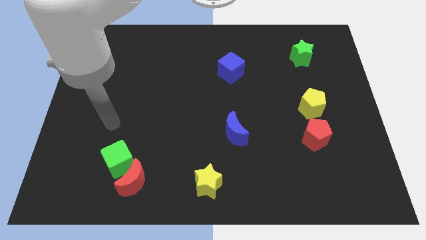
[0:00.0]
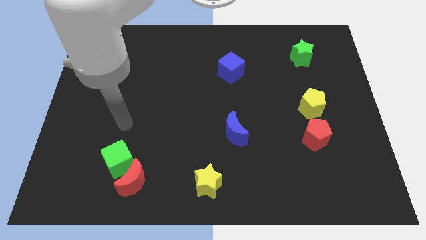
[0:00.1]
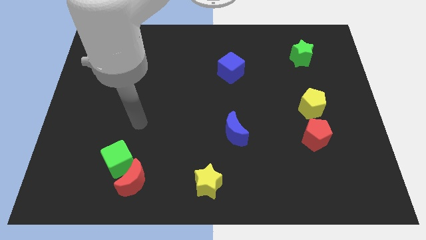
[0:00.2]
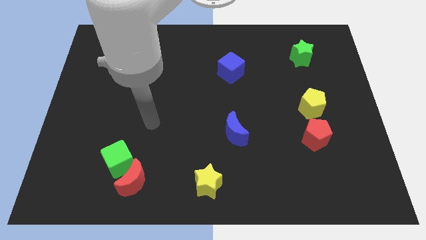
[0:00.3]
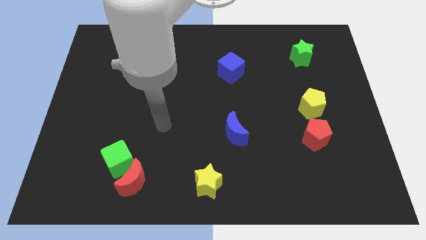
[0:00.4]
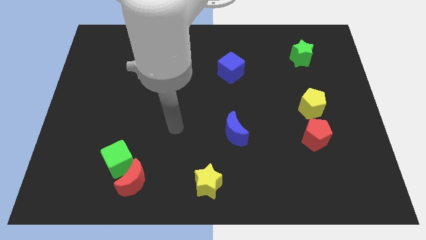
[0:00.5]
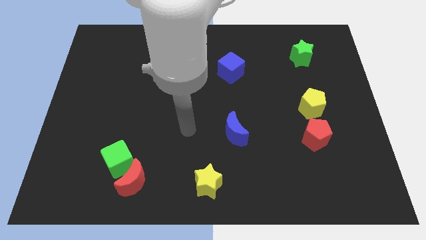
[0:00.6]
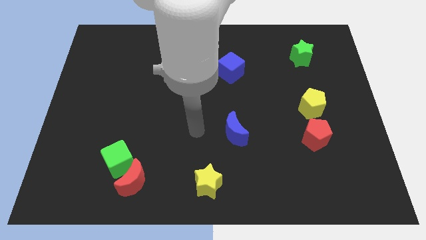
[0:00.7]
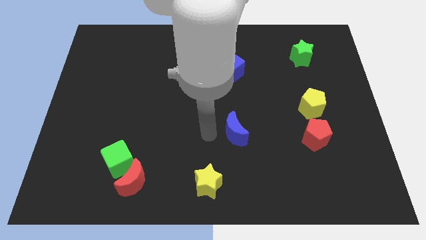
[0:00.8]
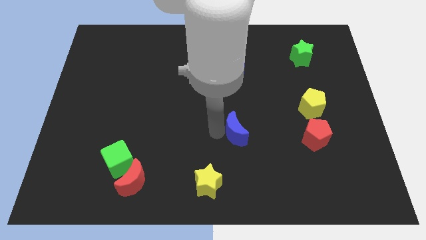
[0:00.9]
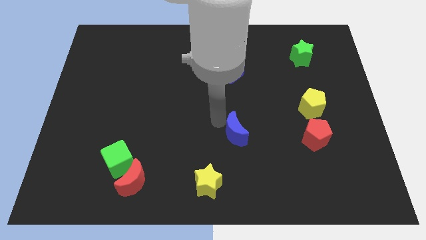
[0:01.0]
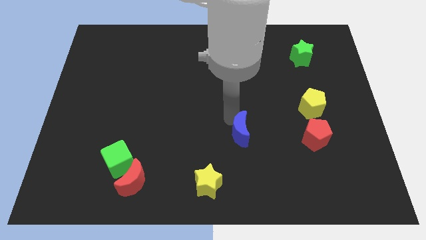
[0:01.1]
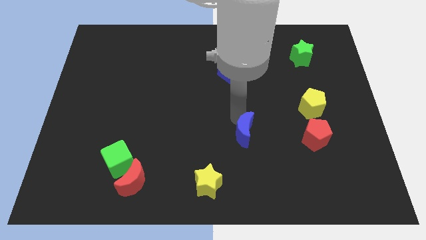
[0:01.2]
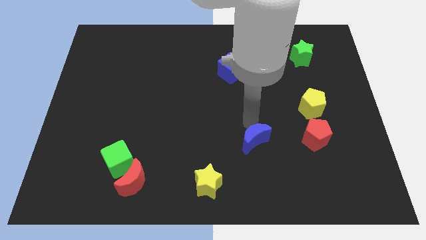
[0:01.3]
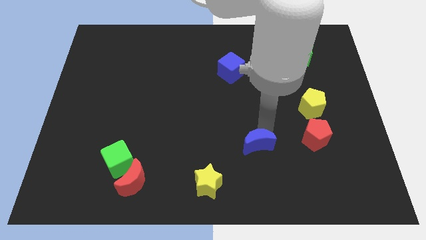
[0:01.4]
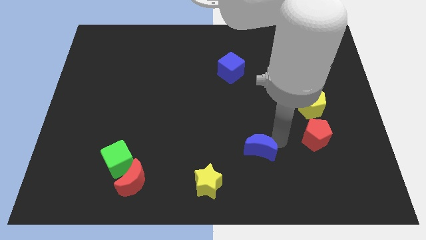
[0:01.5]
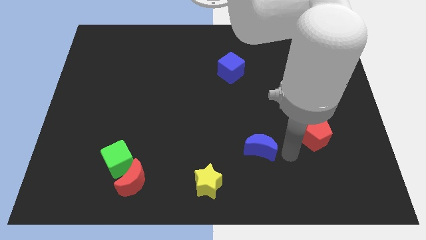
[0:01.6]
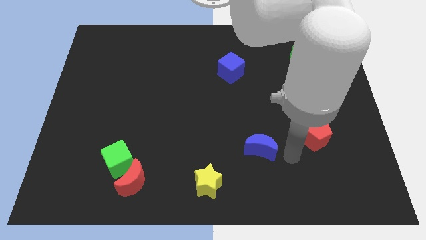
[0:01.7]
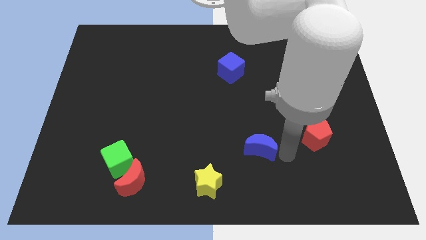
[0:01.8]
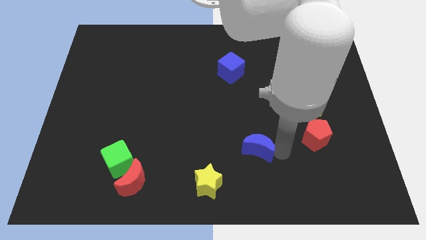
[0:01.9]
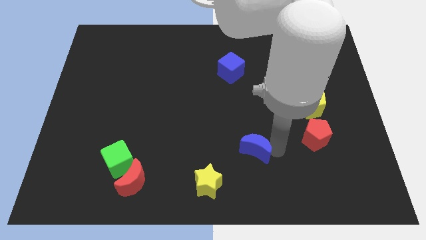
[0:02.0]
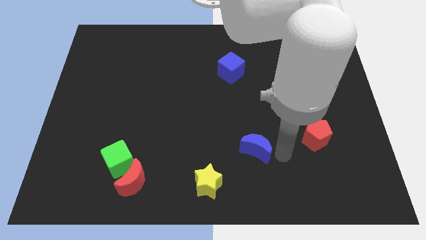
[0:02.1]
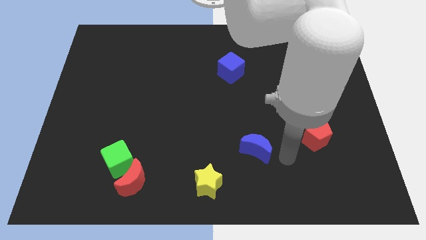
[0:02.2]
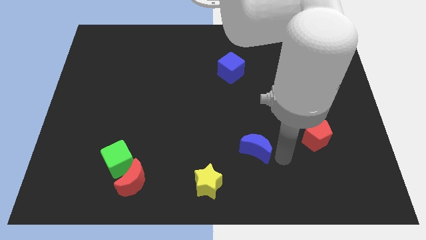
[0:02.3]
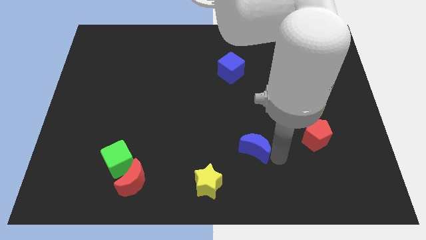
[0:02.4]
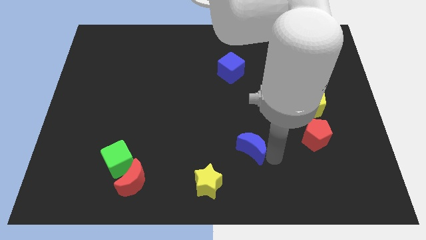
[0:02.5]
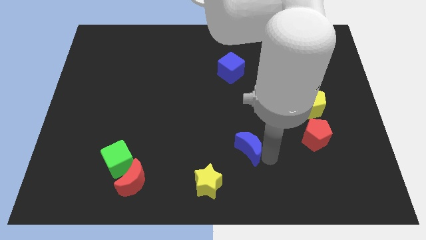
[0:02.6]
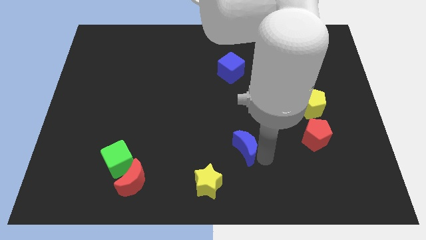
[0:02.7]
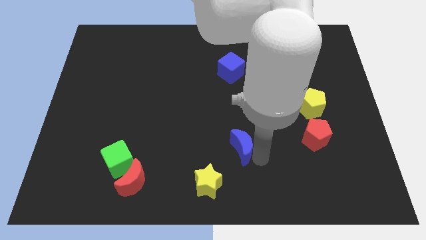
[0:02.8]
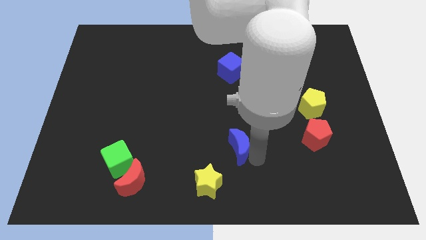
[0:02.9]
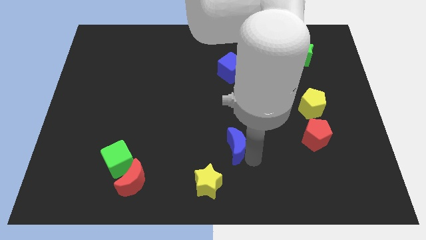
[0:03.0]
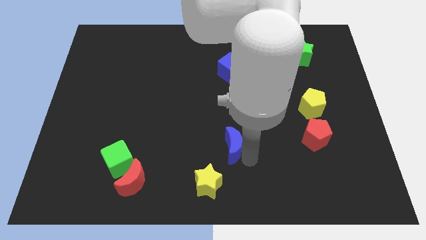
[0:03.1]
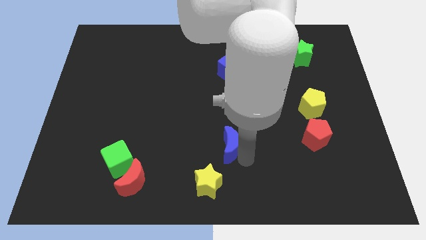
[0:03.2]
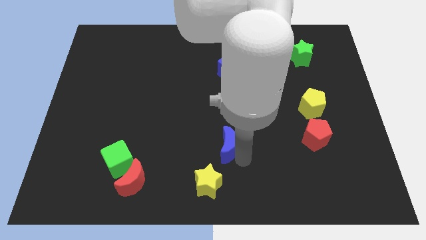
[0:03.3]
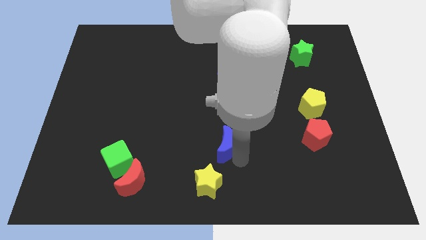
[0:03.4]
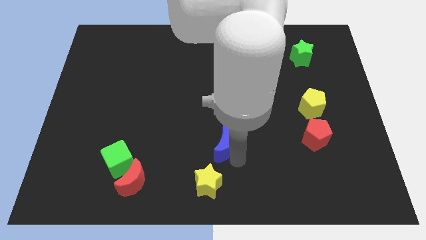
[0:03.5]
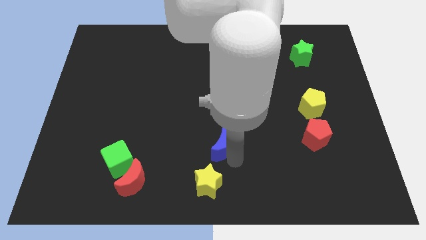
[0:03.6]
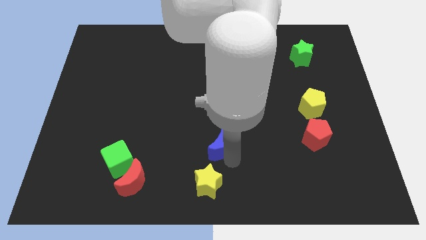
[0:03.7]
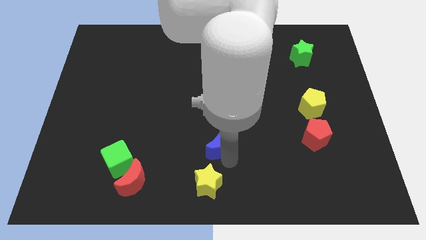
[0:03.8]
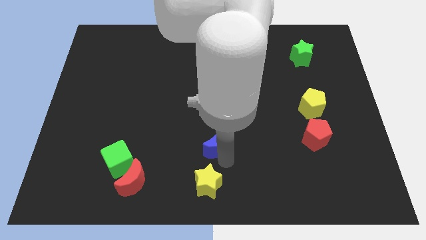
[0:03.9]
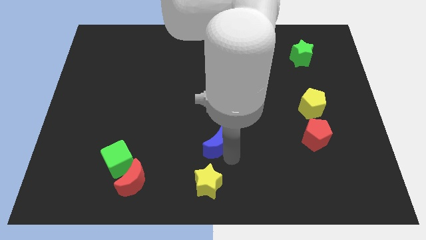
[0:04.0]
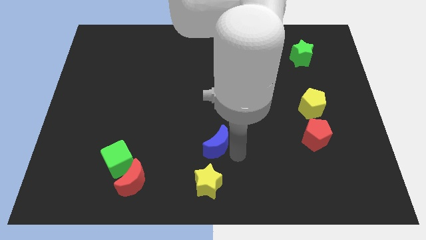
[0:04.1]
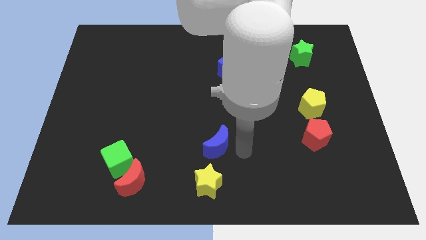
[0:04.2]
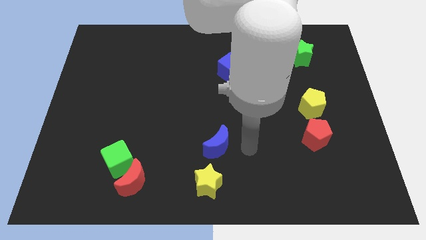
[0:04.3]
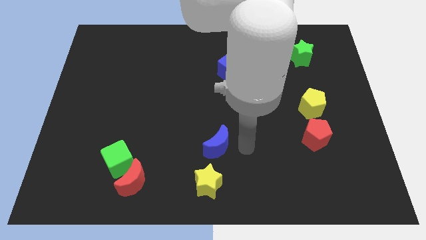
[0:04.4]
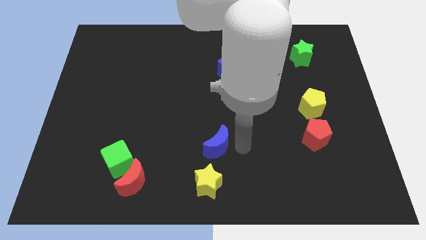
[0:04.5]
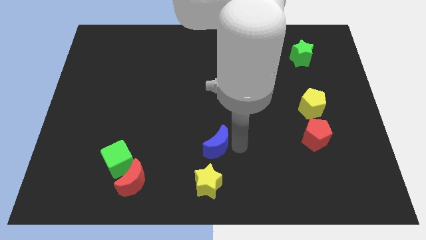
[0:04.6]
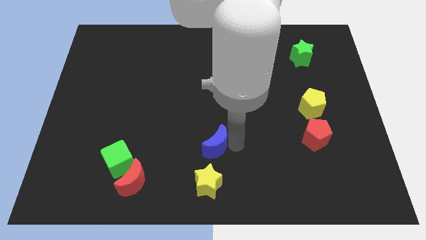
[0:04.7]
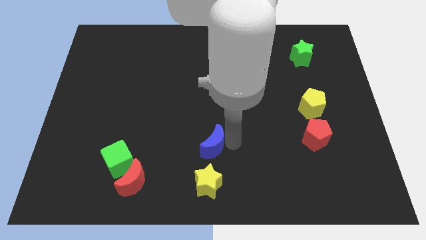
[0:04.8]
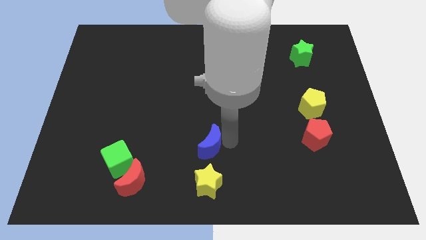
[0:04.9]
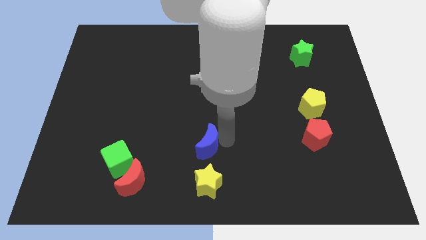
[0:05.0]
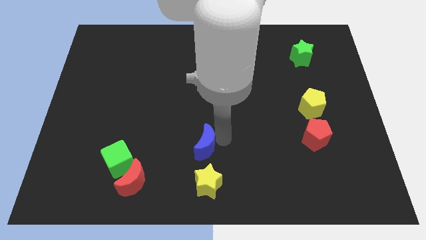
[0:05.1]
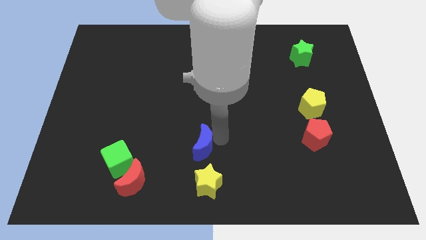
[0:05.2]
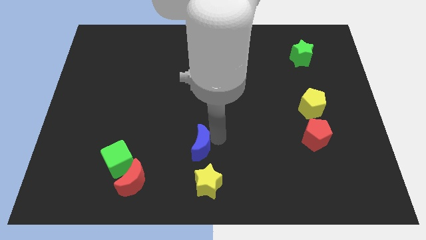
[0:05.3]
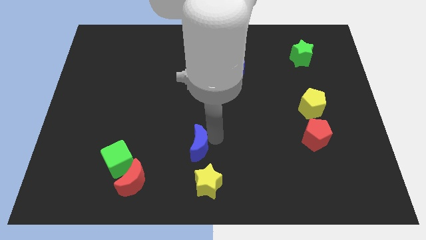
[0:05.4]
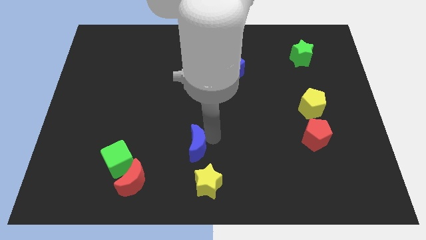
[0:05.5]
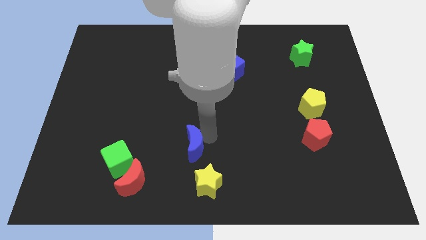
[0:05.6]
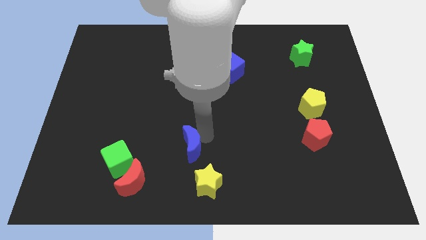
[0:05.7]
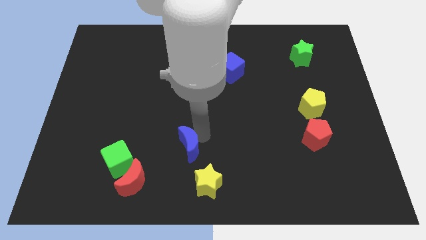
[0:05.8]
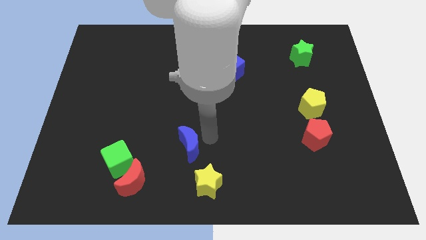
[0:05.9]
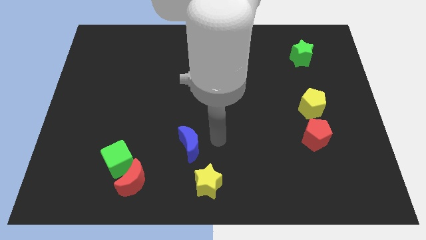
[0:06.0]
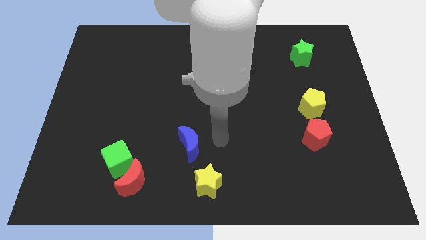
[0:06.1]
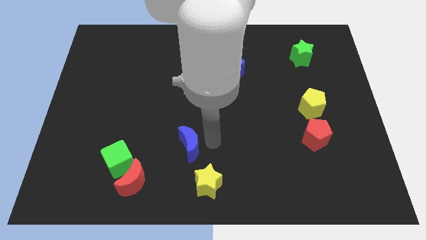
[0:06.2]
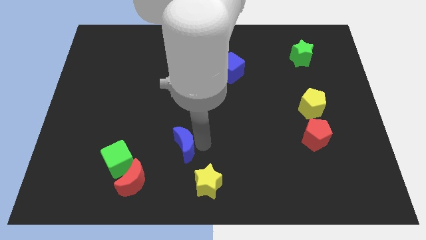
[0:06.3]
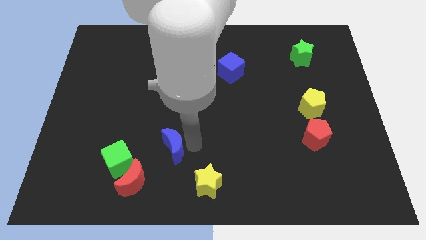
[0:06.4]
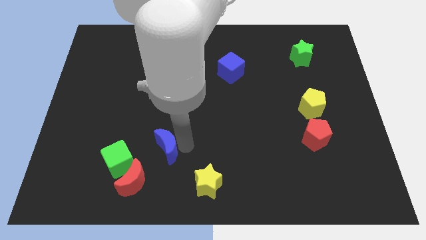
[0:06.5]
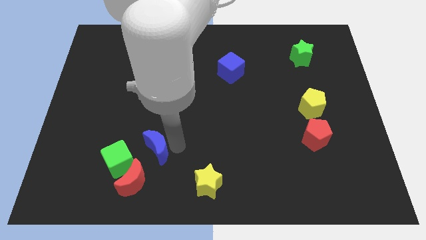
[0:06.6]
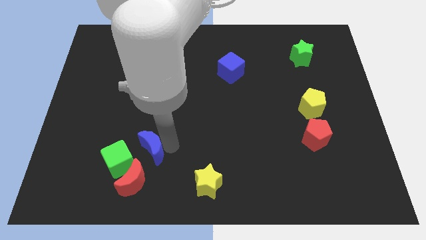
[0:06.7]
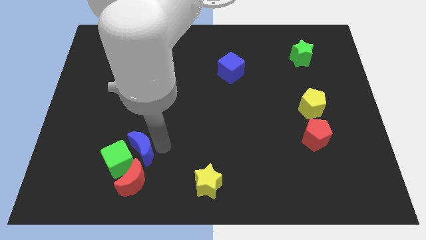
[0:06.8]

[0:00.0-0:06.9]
put the blue moon towards the green cube
